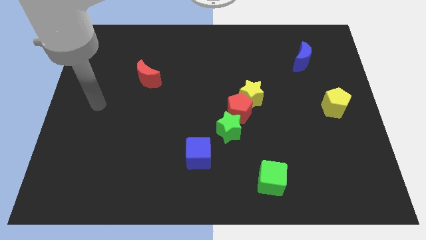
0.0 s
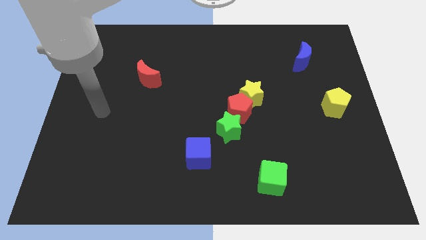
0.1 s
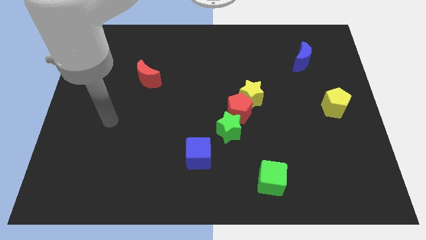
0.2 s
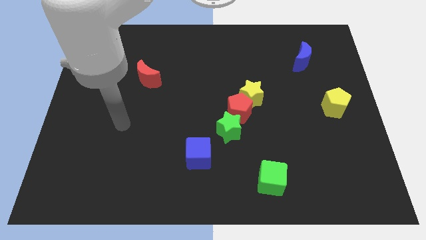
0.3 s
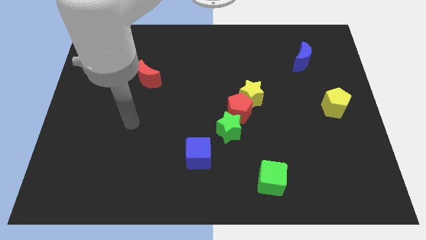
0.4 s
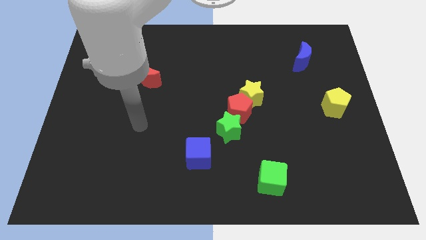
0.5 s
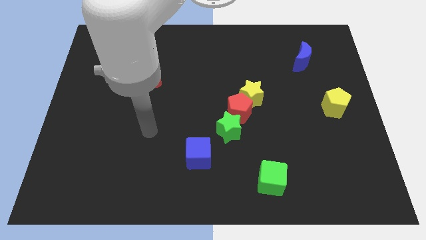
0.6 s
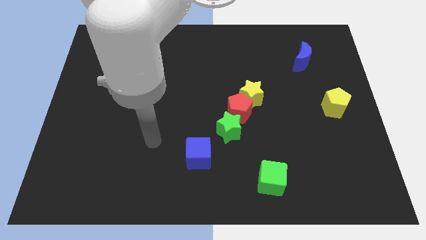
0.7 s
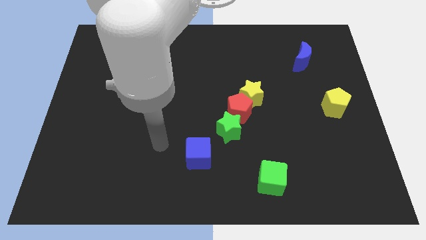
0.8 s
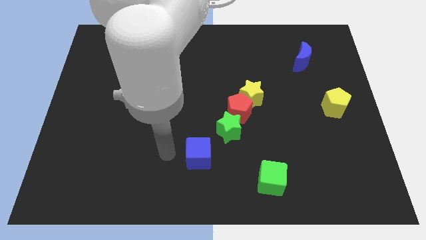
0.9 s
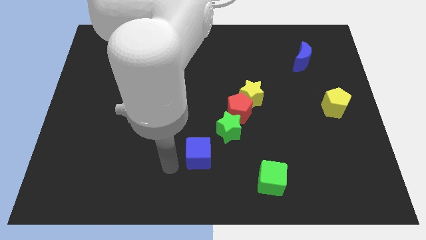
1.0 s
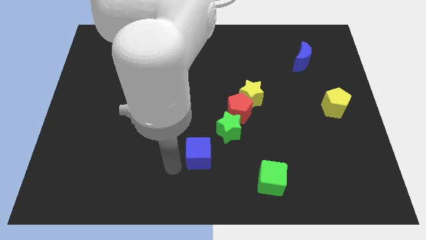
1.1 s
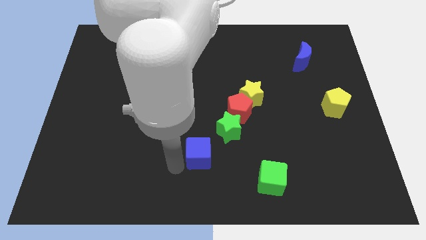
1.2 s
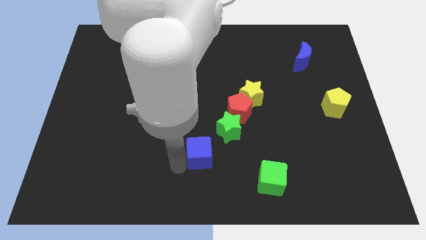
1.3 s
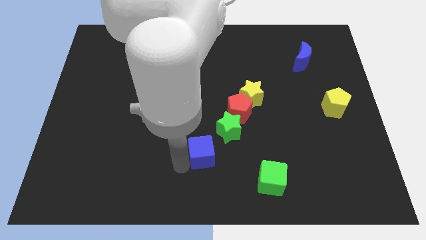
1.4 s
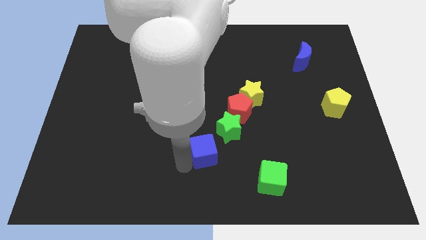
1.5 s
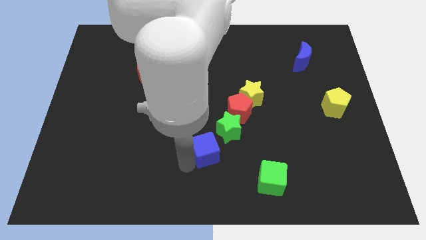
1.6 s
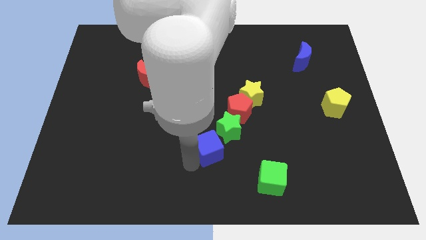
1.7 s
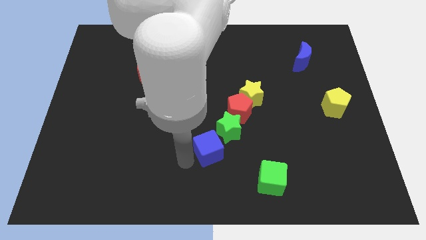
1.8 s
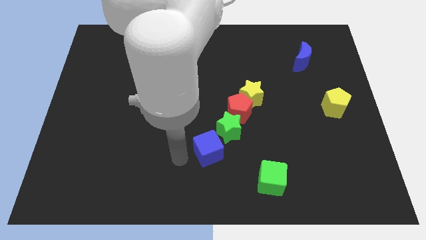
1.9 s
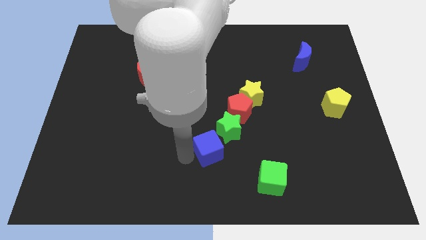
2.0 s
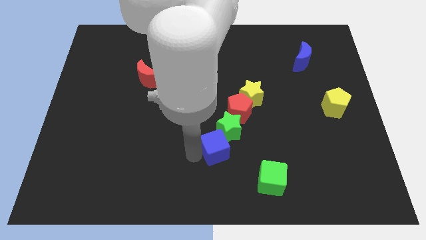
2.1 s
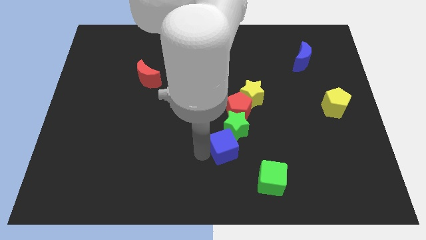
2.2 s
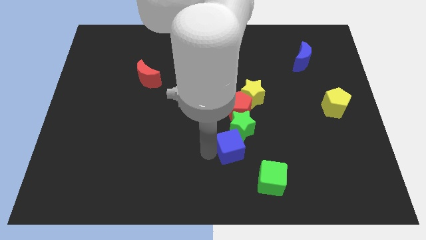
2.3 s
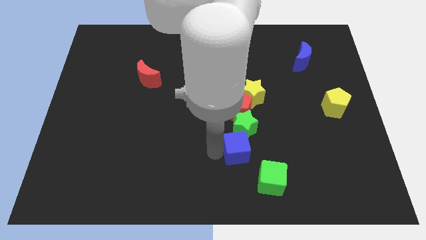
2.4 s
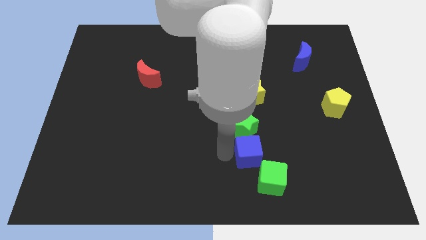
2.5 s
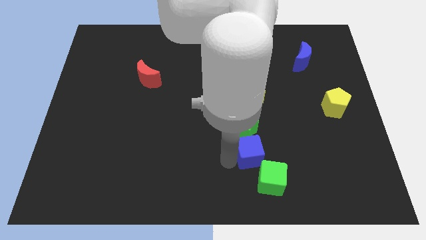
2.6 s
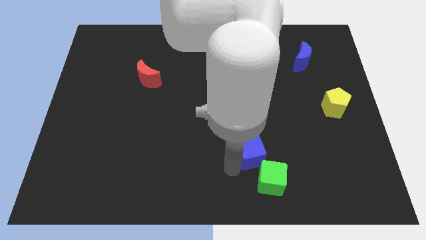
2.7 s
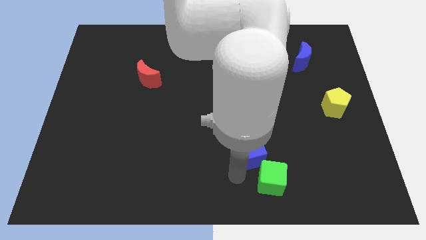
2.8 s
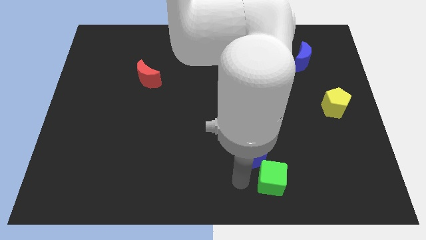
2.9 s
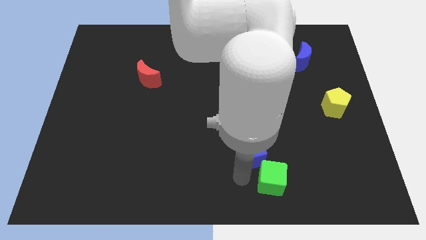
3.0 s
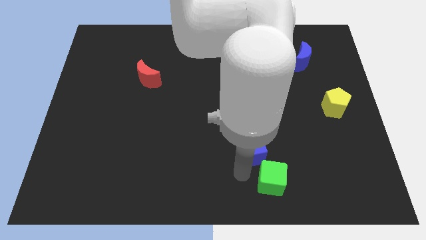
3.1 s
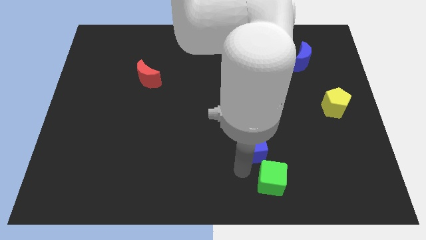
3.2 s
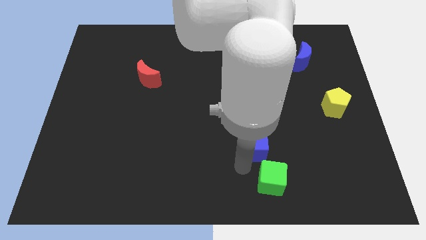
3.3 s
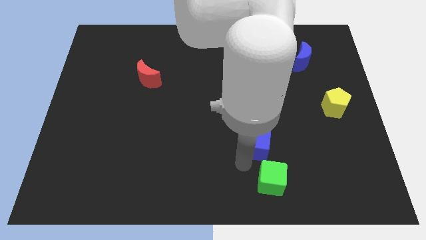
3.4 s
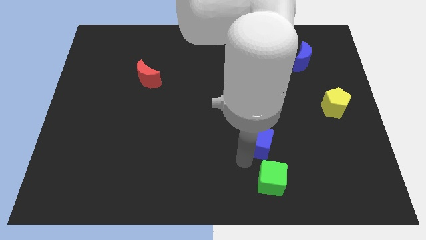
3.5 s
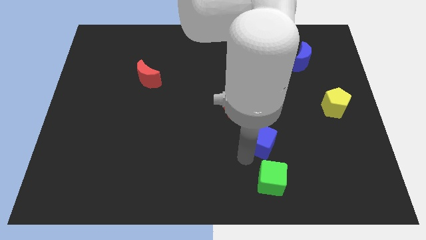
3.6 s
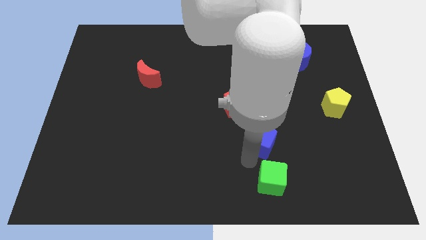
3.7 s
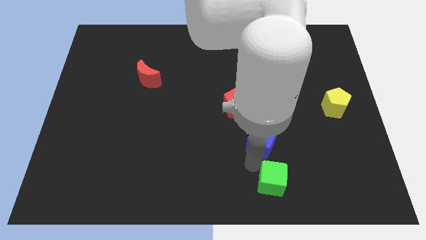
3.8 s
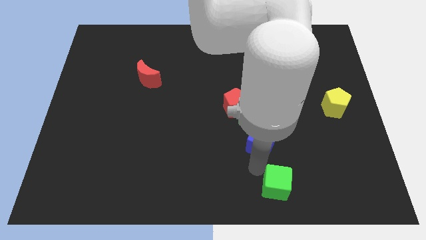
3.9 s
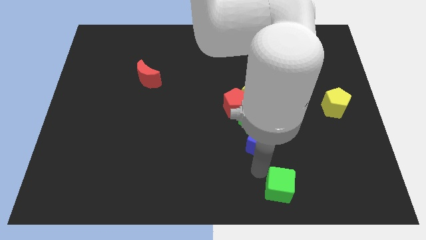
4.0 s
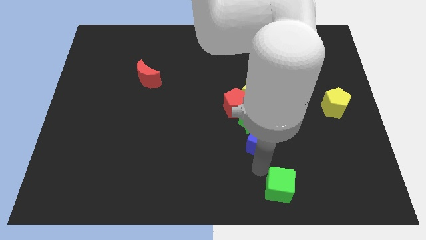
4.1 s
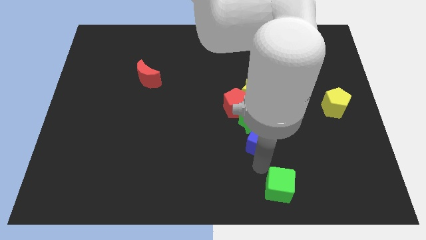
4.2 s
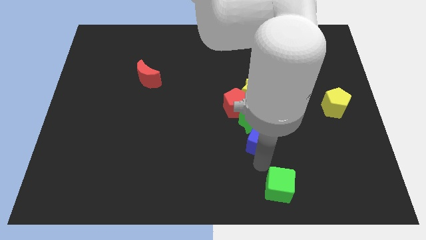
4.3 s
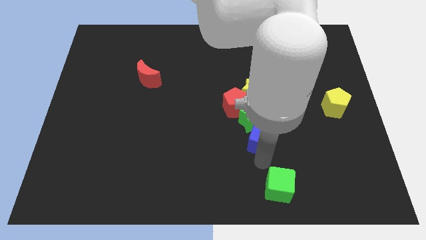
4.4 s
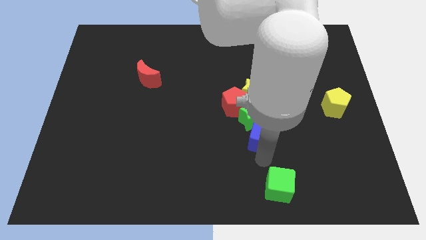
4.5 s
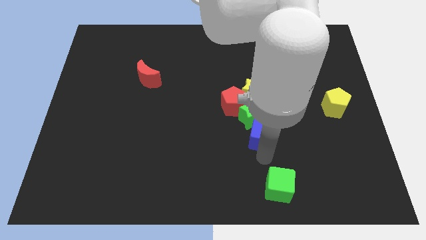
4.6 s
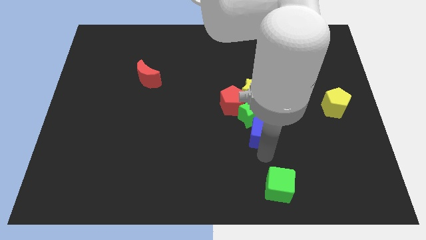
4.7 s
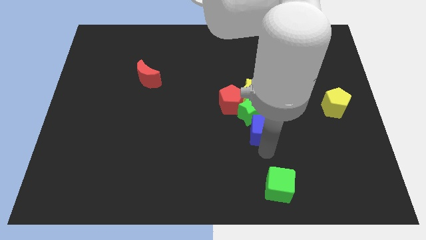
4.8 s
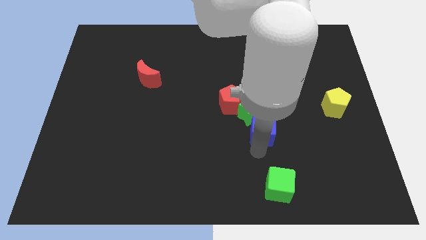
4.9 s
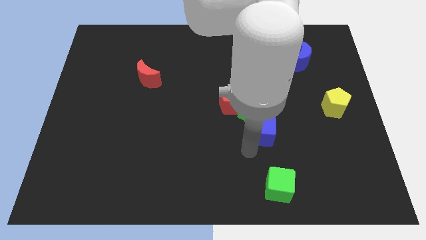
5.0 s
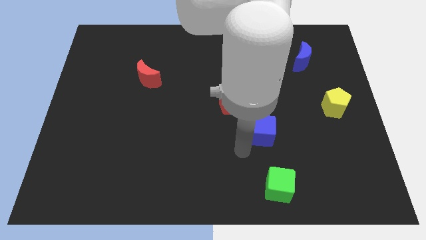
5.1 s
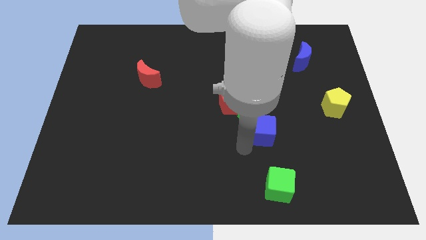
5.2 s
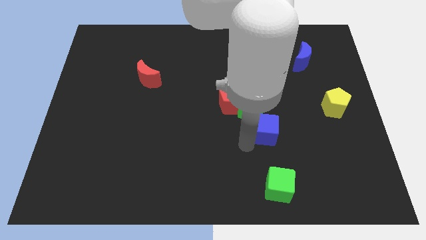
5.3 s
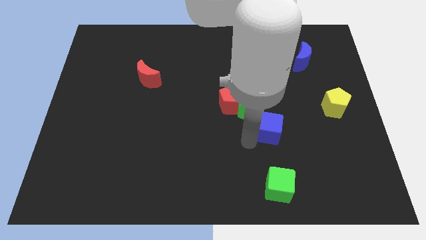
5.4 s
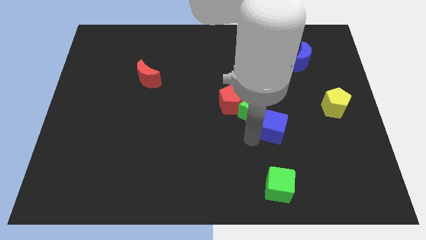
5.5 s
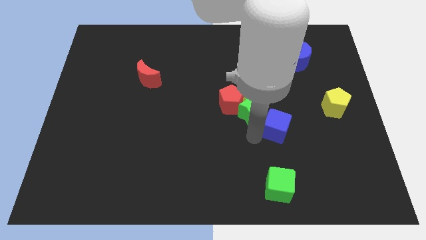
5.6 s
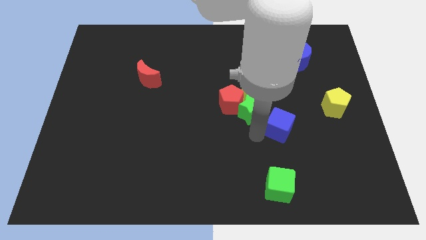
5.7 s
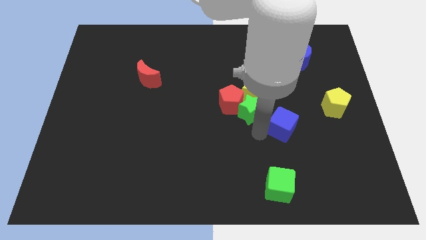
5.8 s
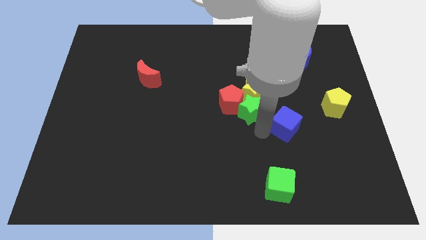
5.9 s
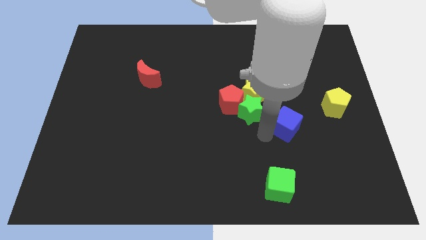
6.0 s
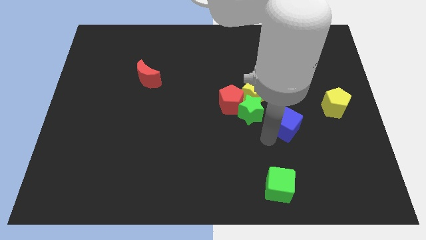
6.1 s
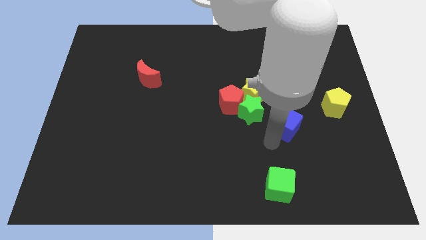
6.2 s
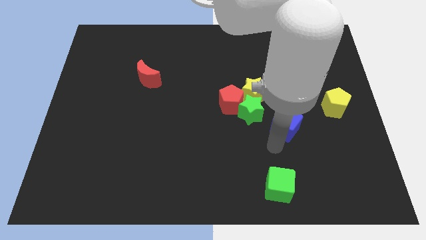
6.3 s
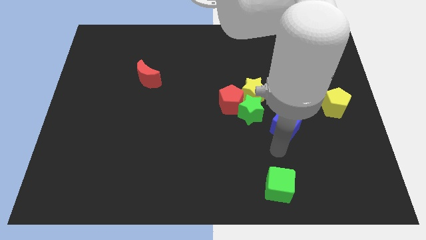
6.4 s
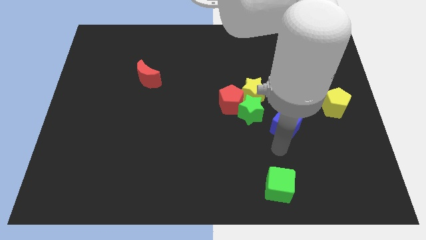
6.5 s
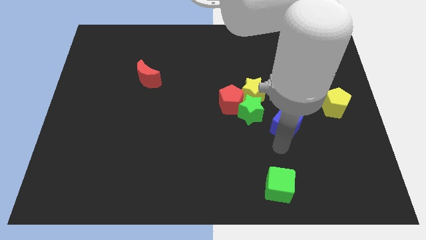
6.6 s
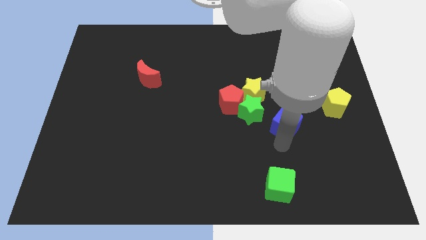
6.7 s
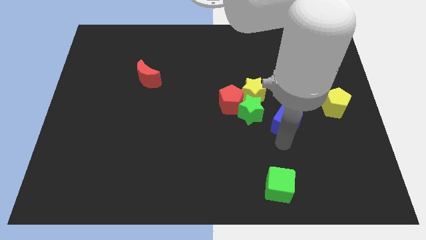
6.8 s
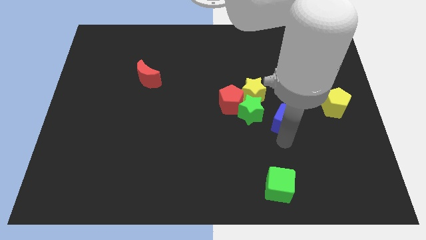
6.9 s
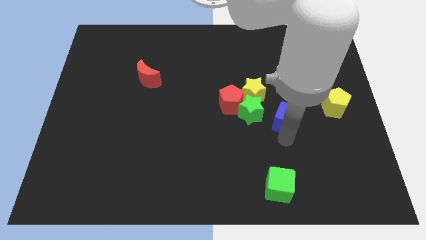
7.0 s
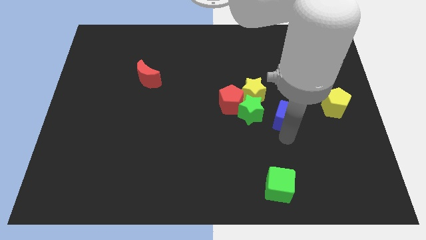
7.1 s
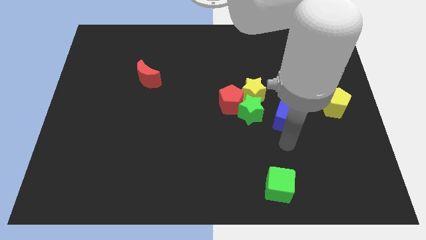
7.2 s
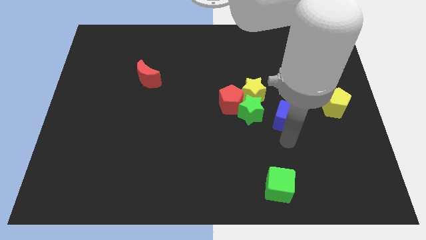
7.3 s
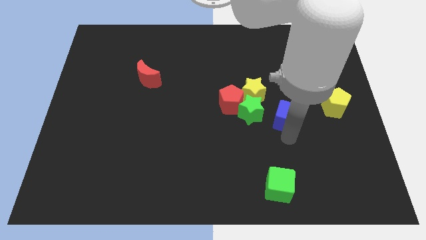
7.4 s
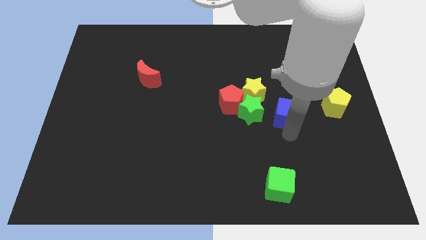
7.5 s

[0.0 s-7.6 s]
slide the blue cube diagonally upwards and right

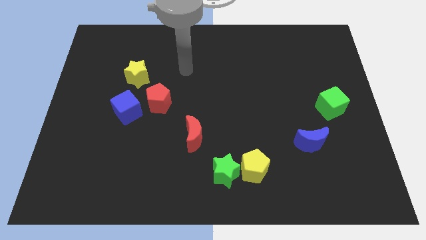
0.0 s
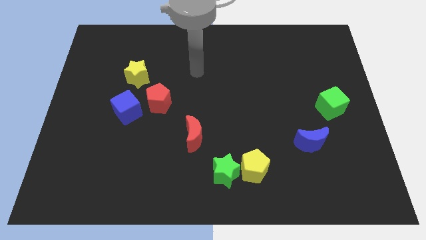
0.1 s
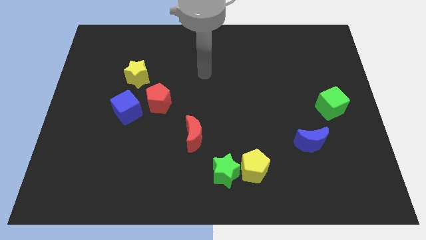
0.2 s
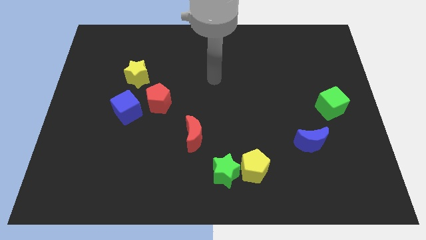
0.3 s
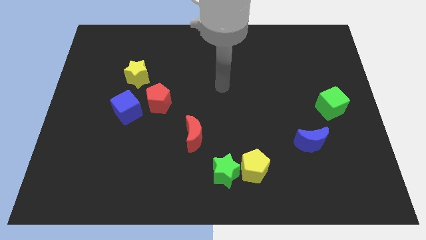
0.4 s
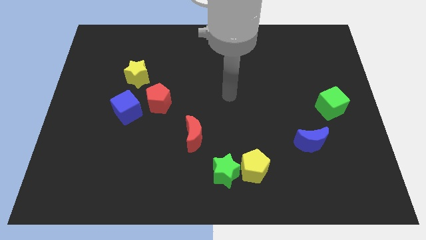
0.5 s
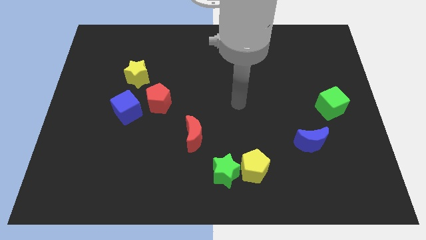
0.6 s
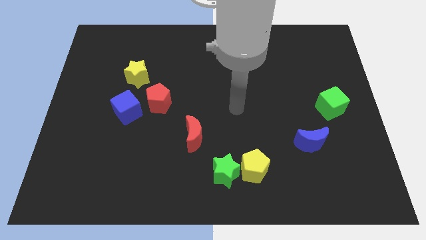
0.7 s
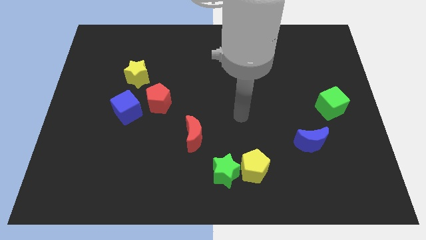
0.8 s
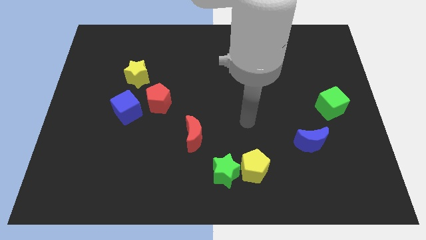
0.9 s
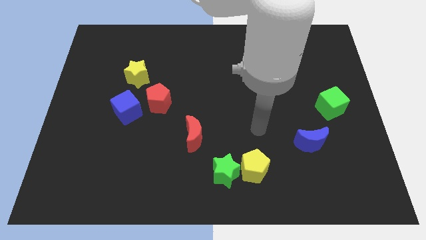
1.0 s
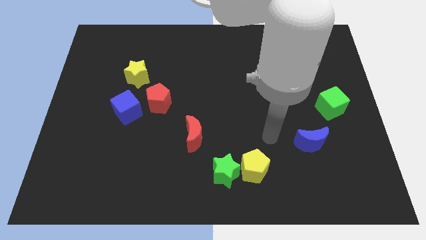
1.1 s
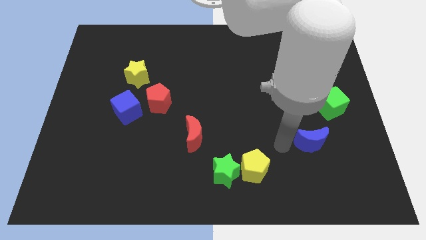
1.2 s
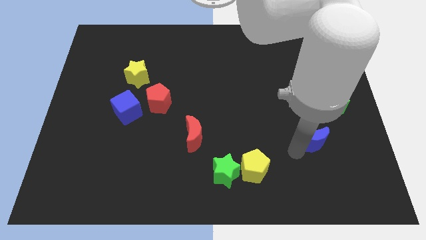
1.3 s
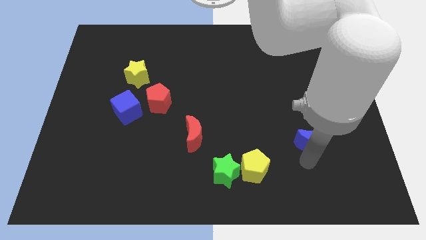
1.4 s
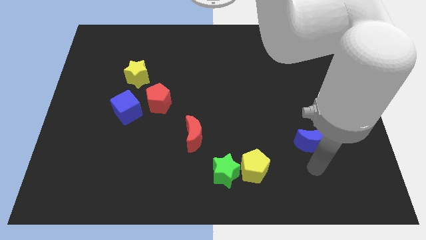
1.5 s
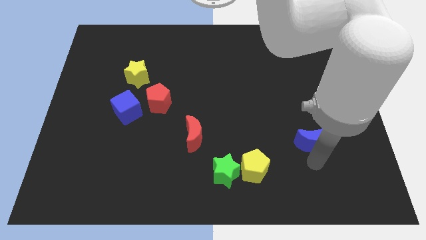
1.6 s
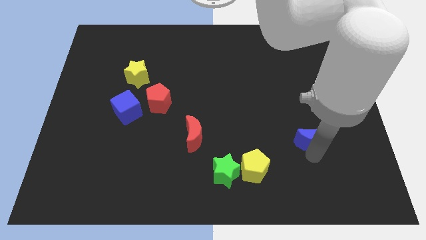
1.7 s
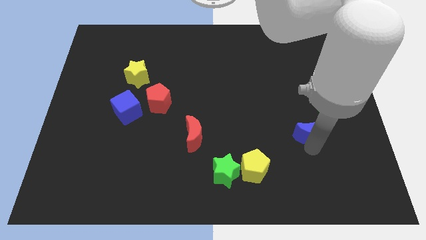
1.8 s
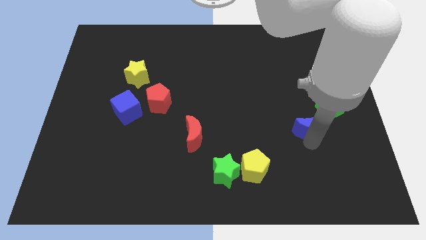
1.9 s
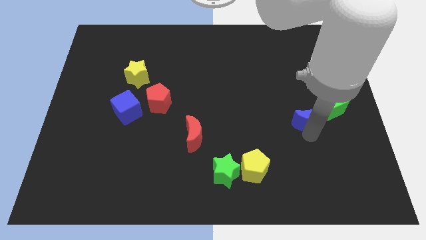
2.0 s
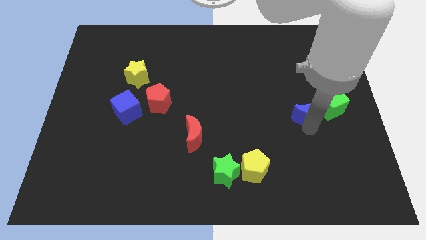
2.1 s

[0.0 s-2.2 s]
slightly slide the blue moon upwards
